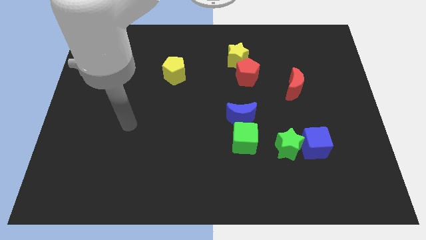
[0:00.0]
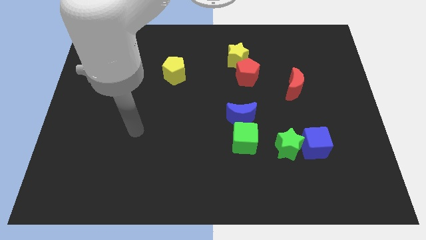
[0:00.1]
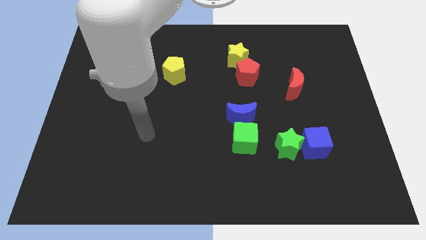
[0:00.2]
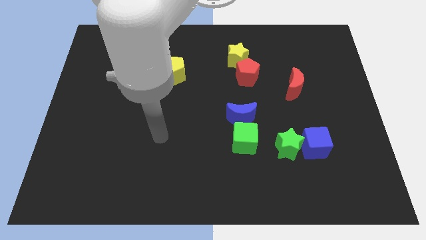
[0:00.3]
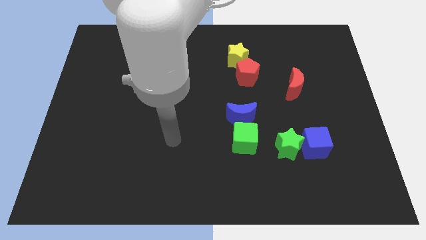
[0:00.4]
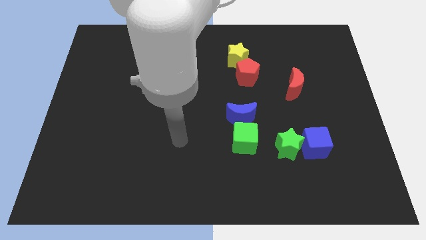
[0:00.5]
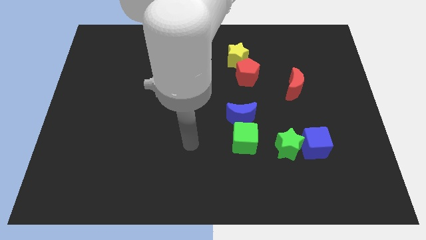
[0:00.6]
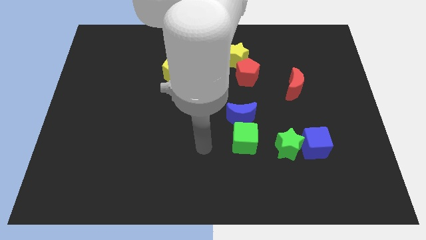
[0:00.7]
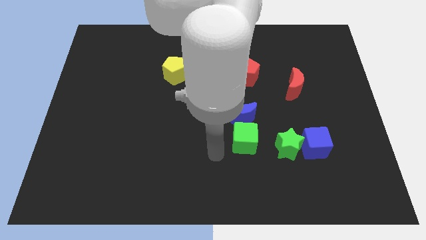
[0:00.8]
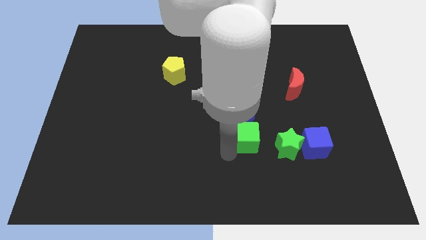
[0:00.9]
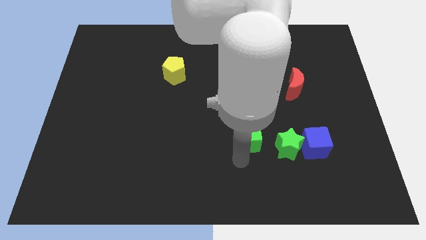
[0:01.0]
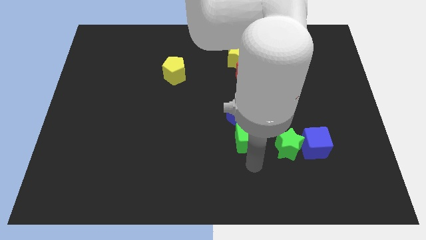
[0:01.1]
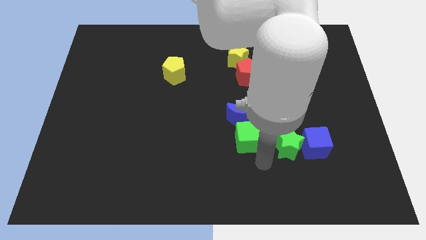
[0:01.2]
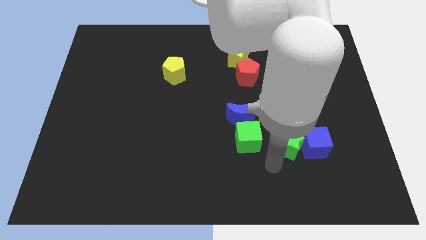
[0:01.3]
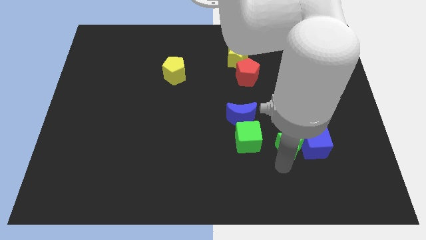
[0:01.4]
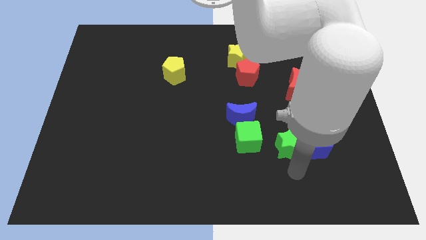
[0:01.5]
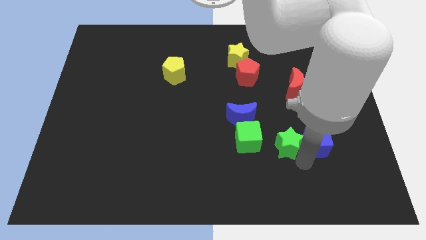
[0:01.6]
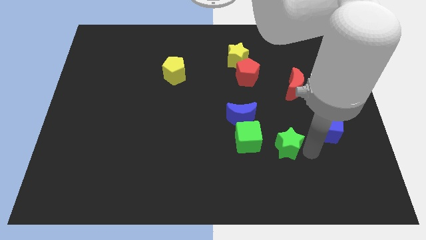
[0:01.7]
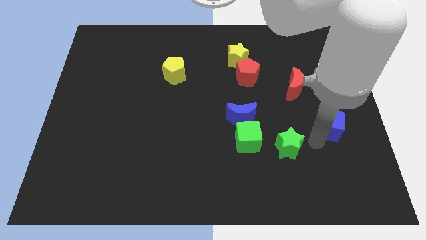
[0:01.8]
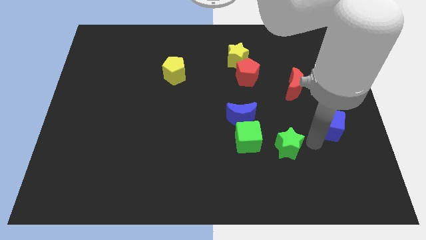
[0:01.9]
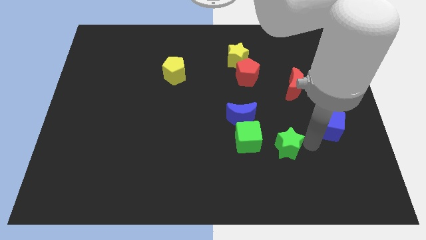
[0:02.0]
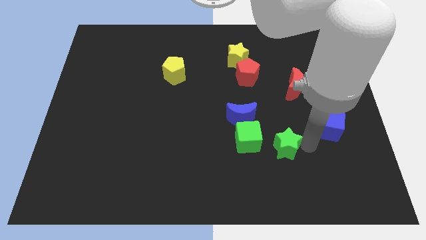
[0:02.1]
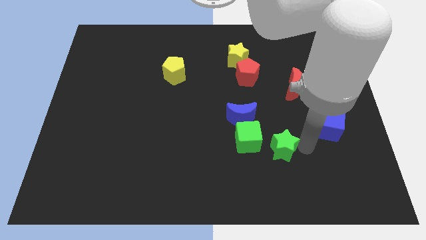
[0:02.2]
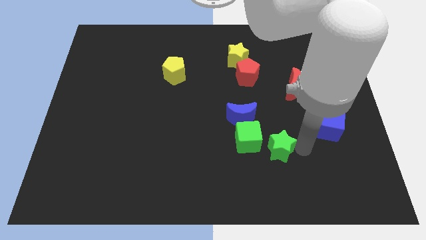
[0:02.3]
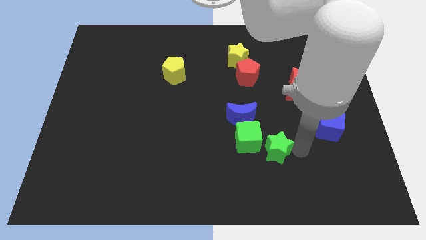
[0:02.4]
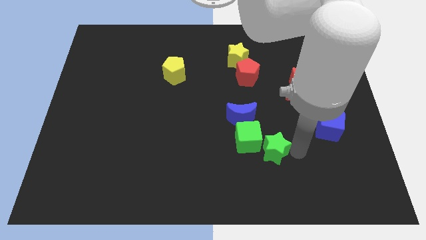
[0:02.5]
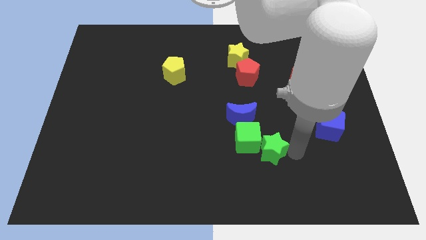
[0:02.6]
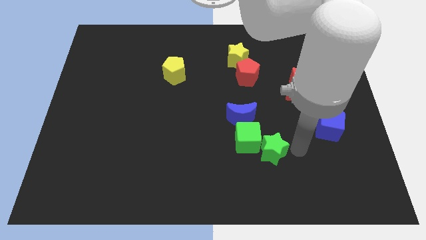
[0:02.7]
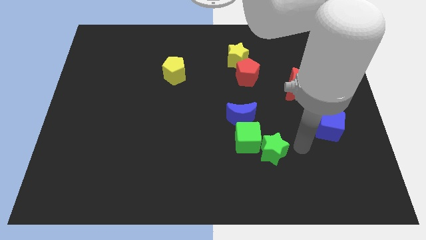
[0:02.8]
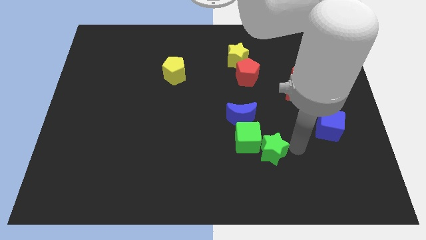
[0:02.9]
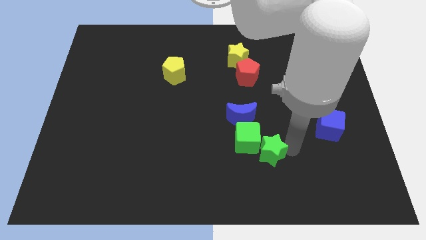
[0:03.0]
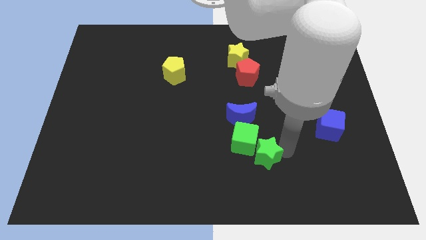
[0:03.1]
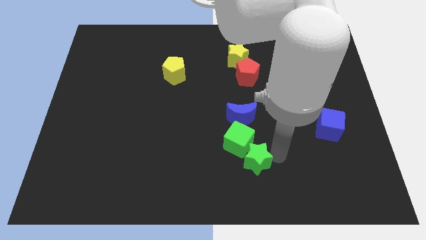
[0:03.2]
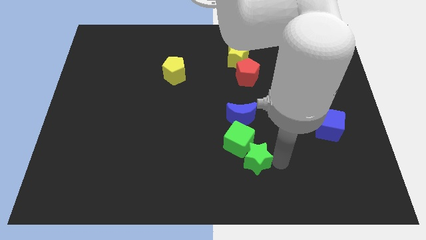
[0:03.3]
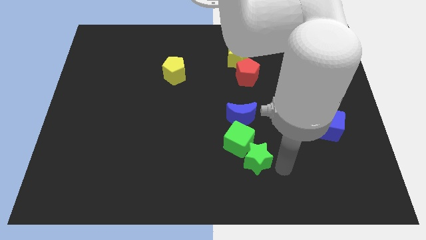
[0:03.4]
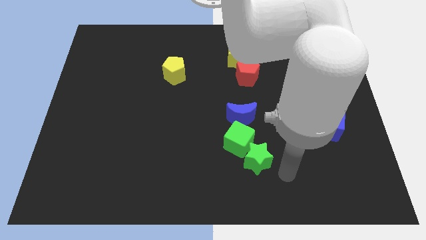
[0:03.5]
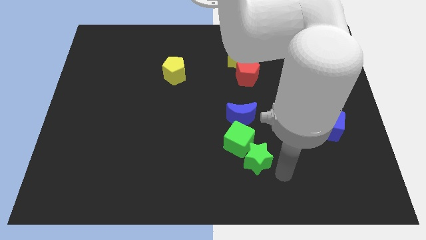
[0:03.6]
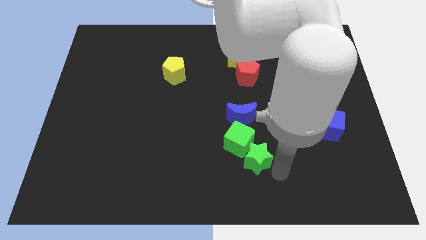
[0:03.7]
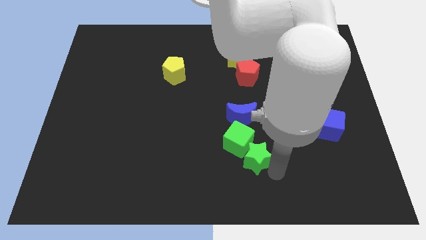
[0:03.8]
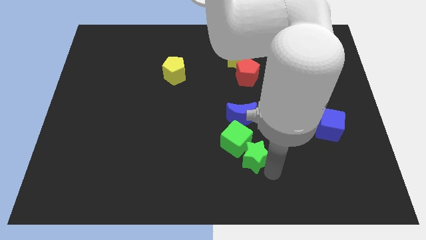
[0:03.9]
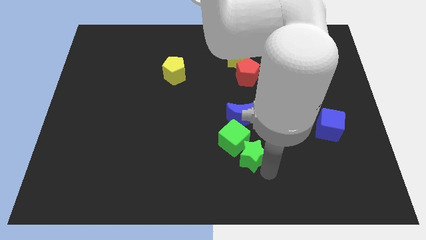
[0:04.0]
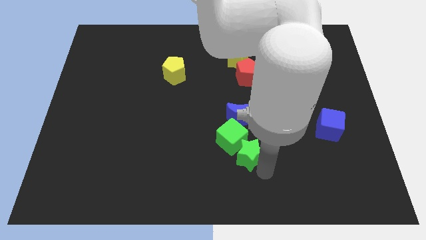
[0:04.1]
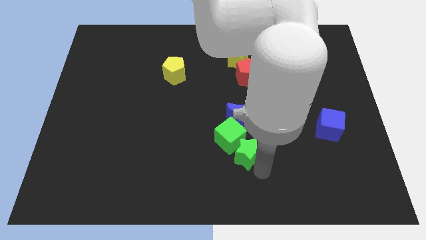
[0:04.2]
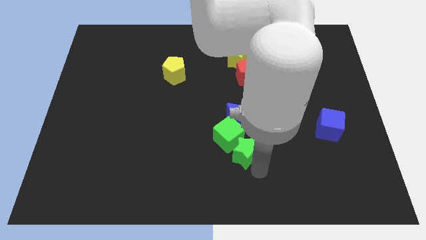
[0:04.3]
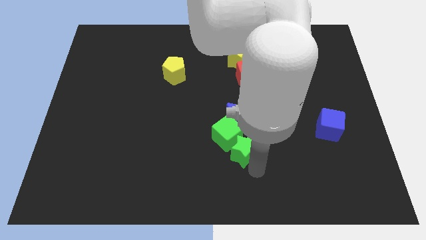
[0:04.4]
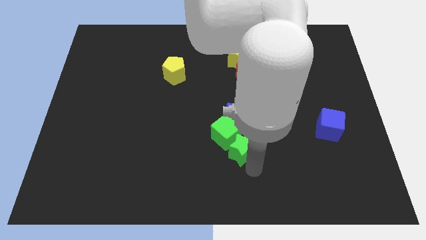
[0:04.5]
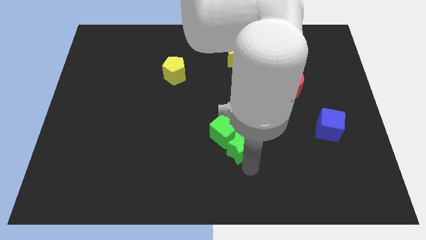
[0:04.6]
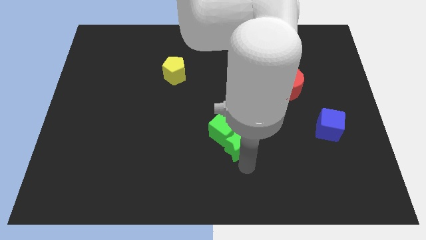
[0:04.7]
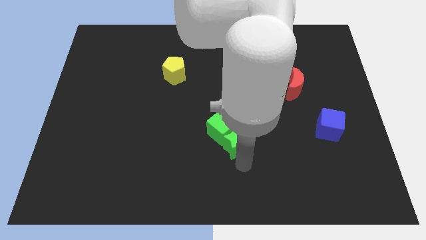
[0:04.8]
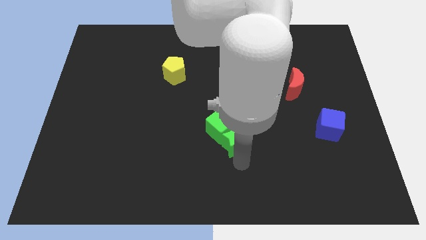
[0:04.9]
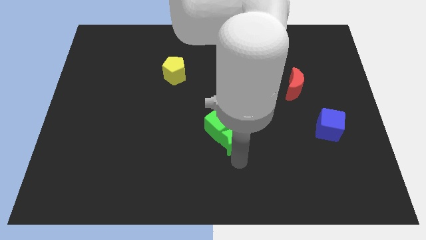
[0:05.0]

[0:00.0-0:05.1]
move the green star up and then left a little

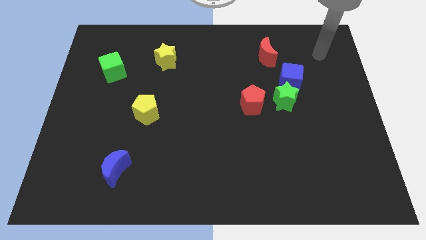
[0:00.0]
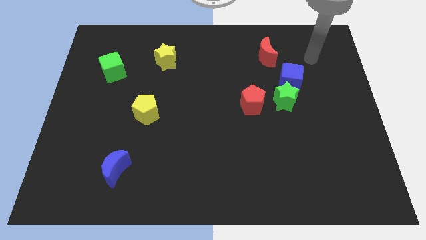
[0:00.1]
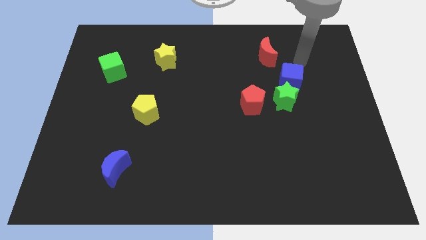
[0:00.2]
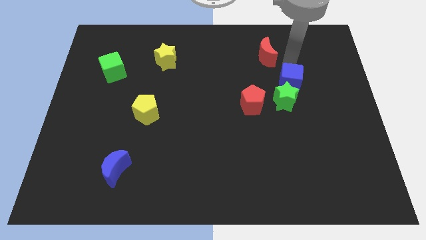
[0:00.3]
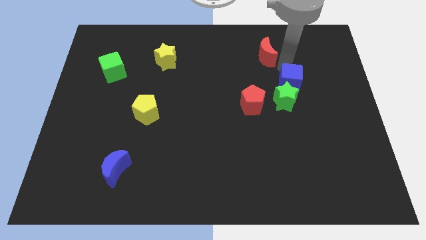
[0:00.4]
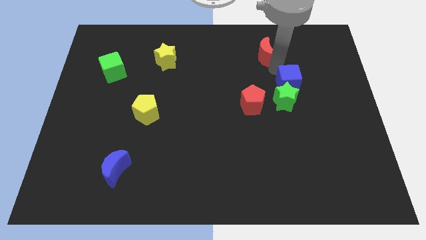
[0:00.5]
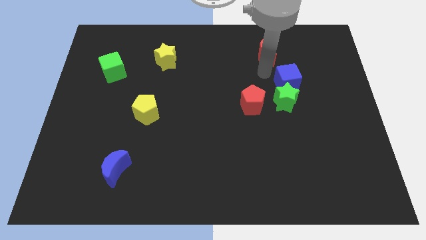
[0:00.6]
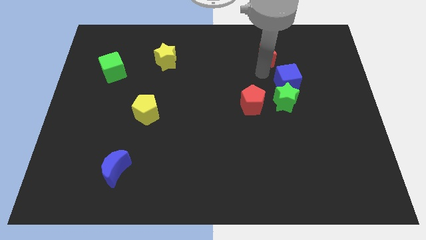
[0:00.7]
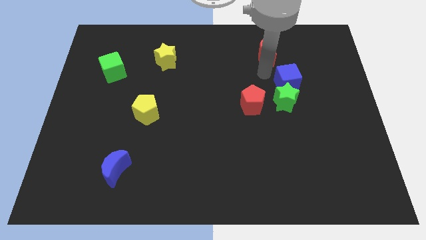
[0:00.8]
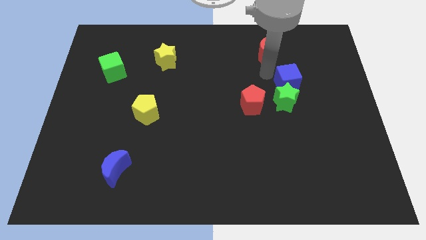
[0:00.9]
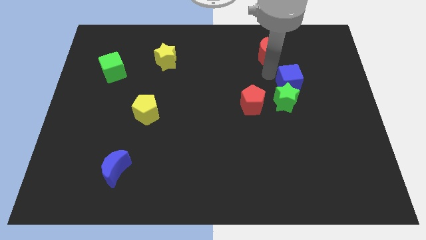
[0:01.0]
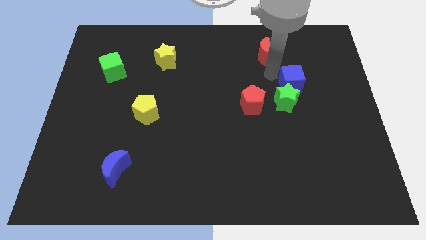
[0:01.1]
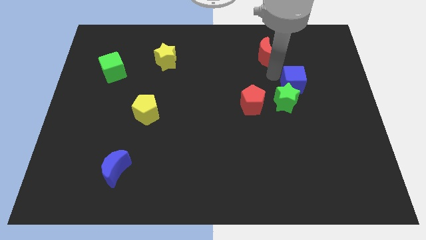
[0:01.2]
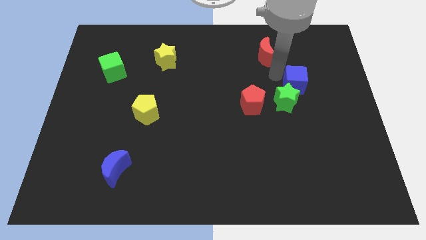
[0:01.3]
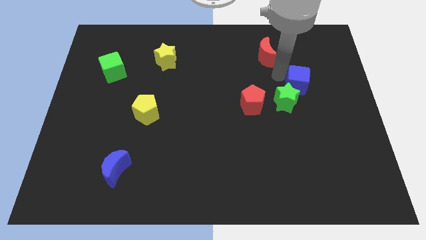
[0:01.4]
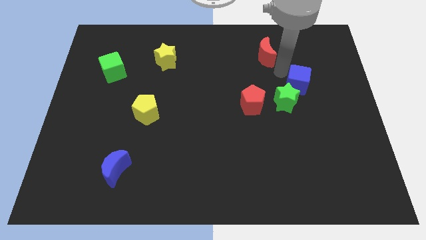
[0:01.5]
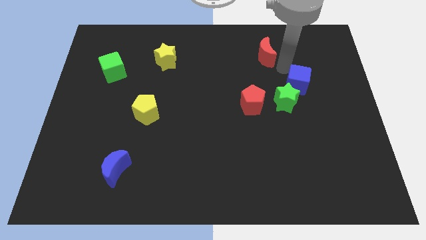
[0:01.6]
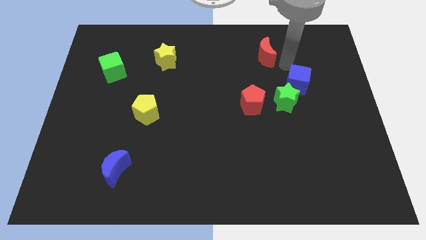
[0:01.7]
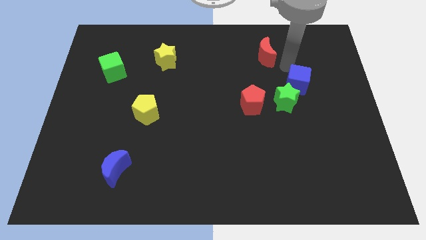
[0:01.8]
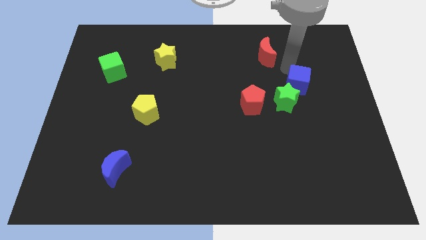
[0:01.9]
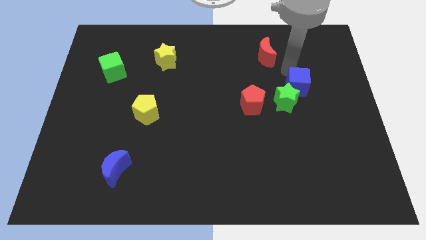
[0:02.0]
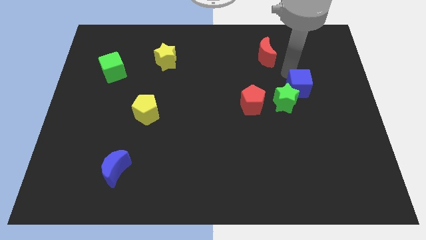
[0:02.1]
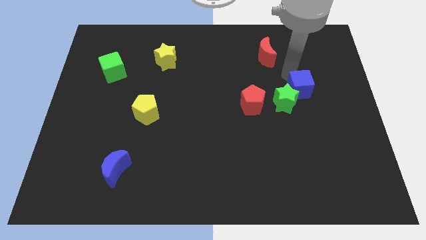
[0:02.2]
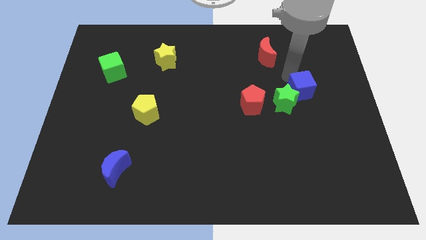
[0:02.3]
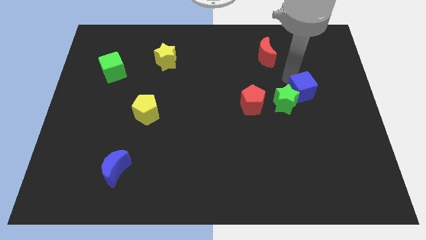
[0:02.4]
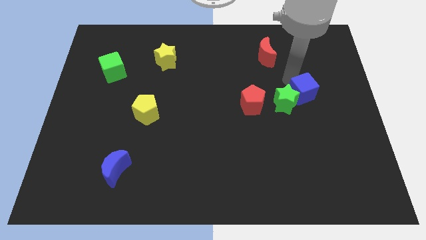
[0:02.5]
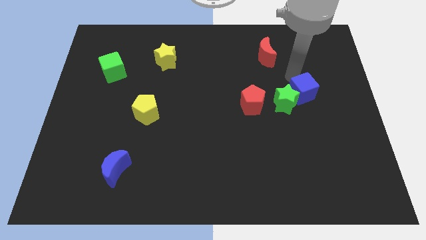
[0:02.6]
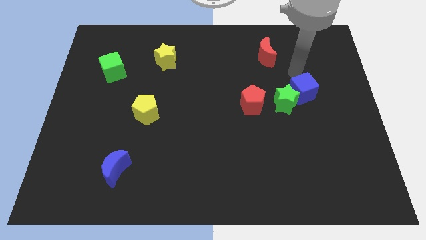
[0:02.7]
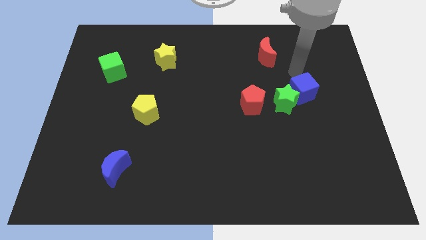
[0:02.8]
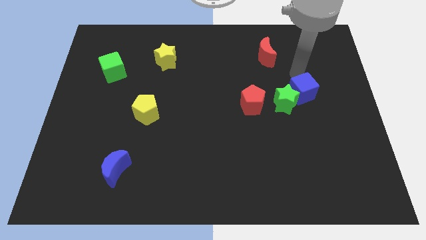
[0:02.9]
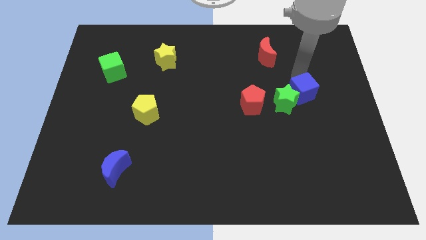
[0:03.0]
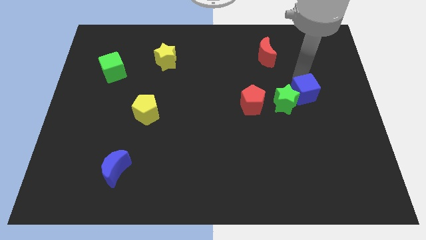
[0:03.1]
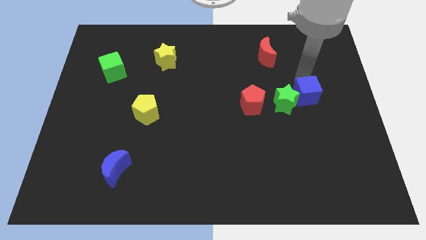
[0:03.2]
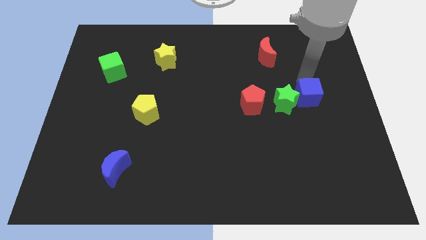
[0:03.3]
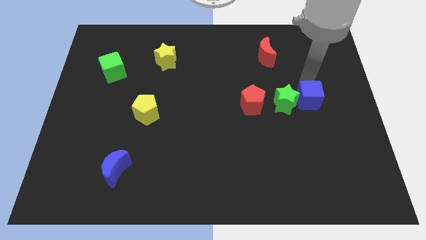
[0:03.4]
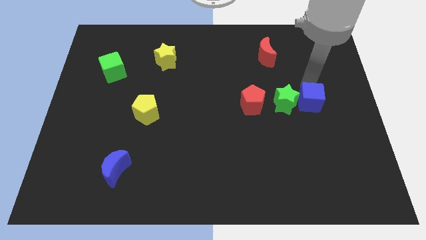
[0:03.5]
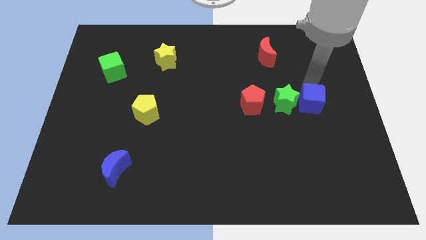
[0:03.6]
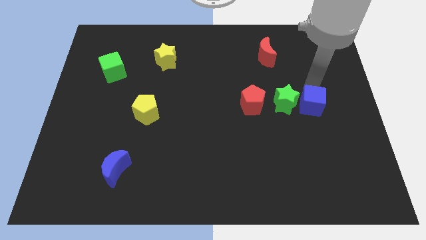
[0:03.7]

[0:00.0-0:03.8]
slightly push the blue cube downwards
